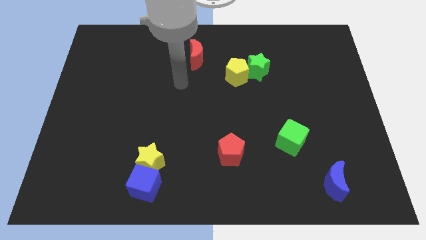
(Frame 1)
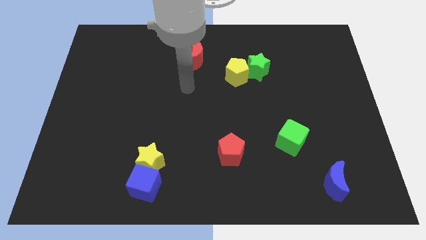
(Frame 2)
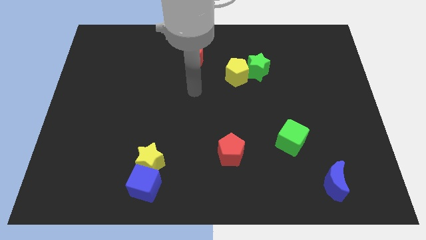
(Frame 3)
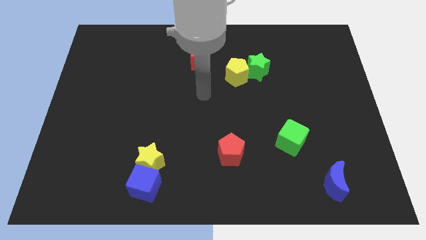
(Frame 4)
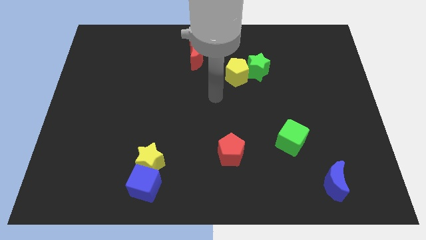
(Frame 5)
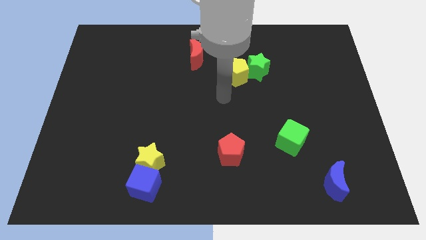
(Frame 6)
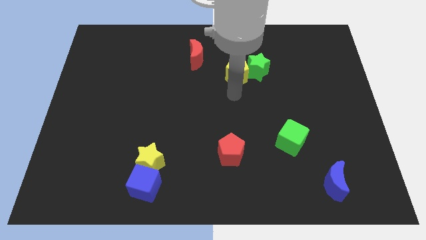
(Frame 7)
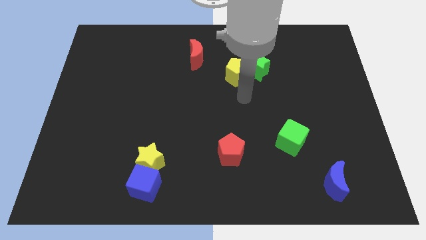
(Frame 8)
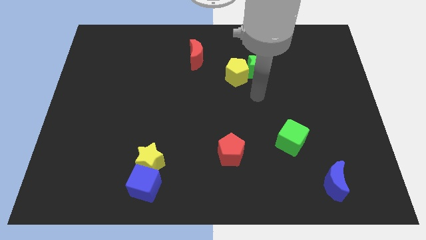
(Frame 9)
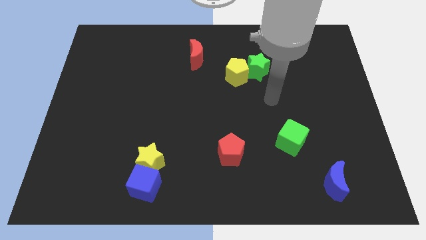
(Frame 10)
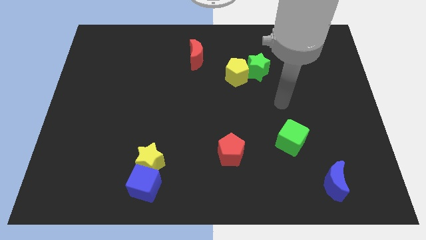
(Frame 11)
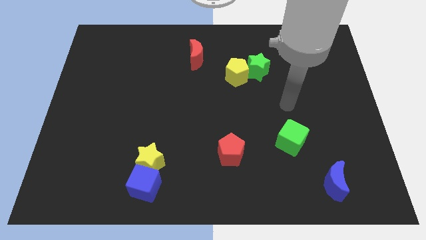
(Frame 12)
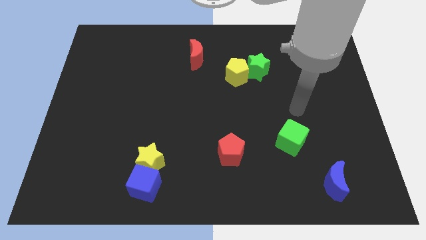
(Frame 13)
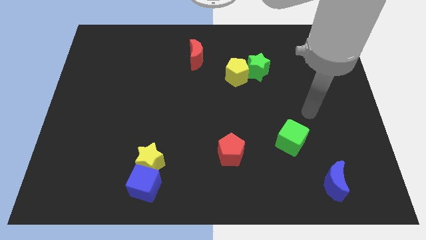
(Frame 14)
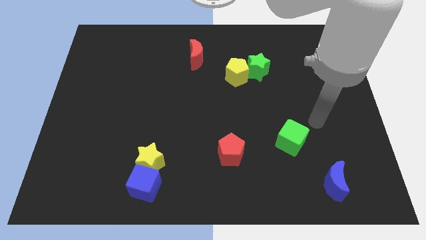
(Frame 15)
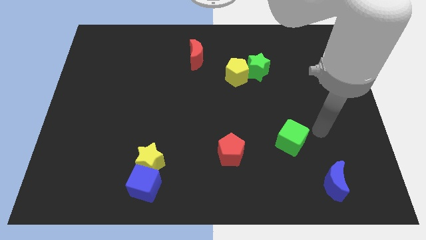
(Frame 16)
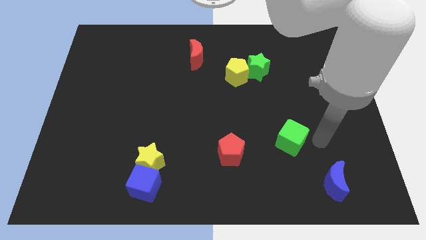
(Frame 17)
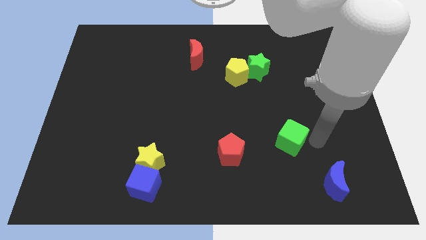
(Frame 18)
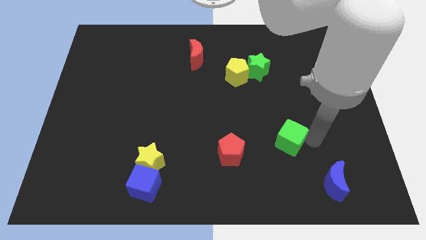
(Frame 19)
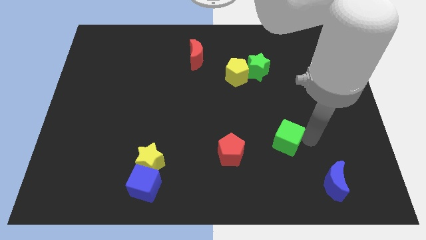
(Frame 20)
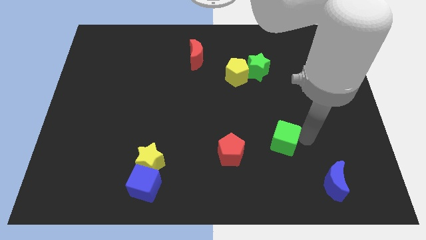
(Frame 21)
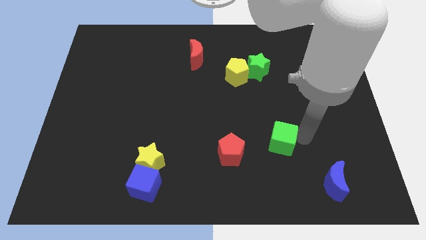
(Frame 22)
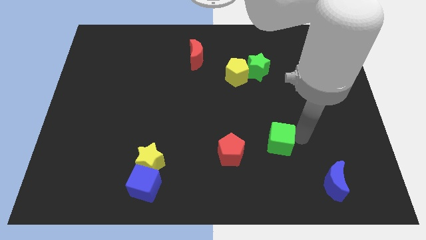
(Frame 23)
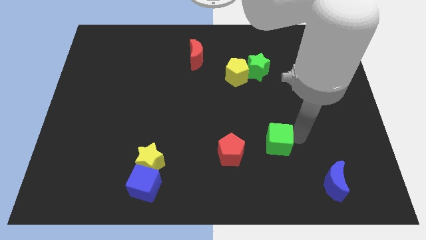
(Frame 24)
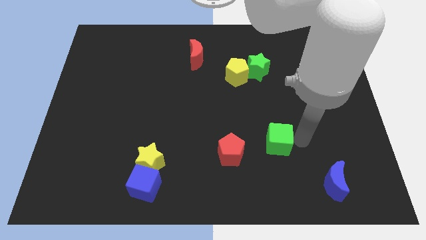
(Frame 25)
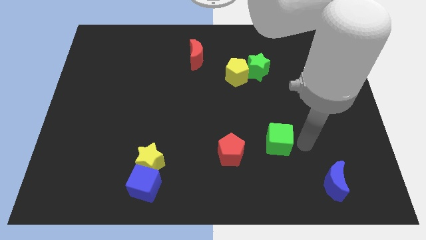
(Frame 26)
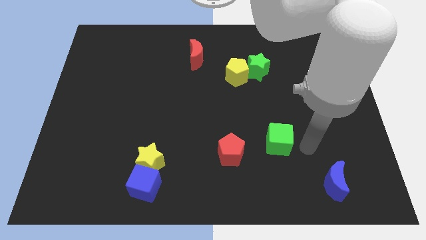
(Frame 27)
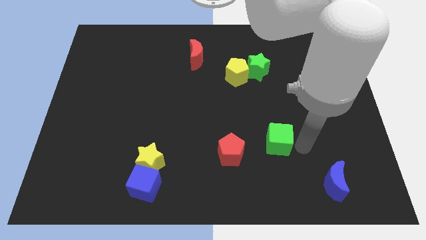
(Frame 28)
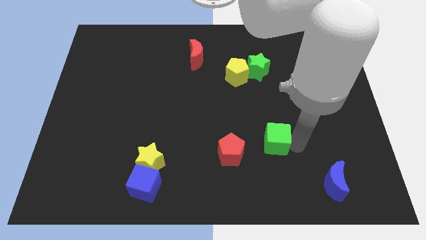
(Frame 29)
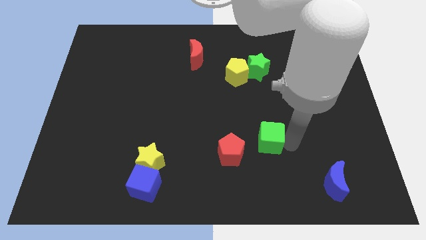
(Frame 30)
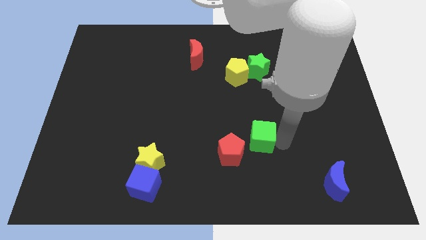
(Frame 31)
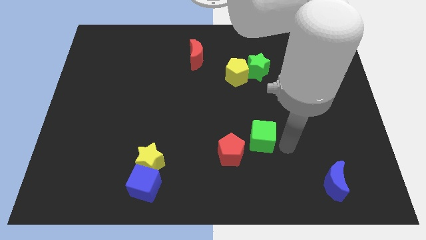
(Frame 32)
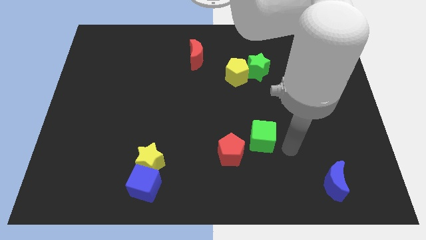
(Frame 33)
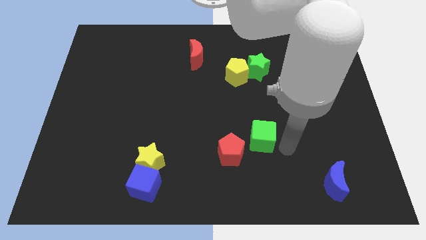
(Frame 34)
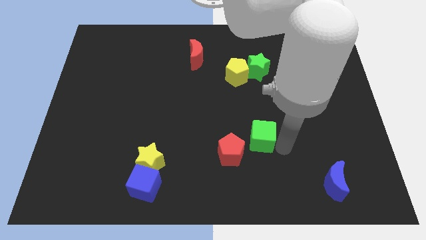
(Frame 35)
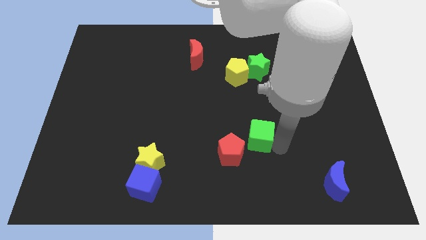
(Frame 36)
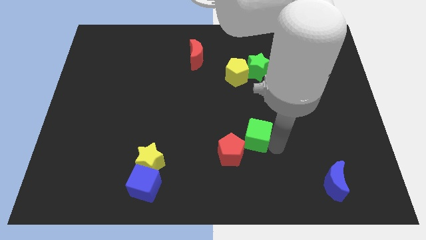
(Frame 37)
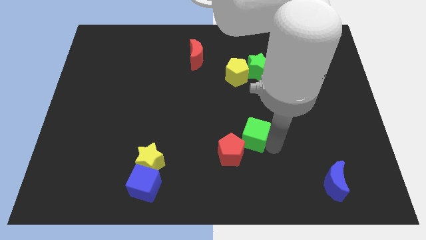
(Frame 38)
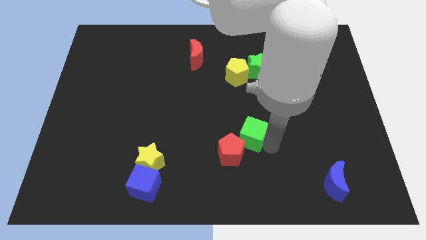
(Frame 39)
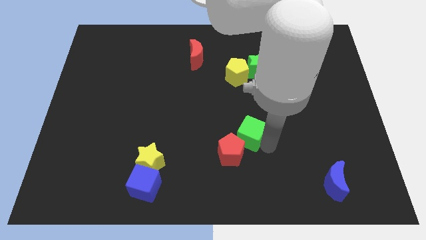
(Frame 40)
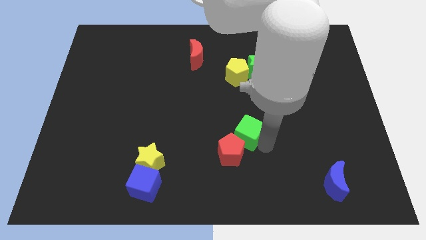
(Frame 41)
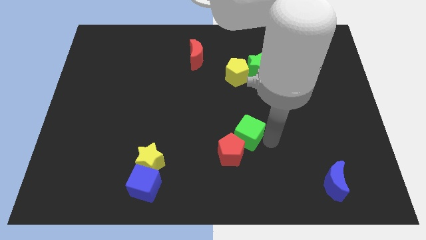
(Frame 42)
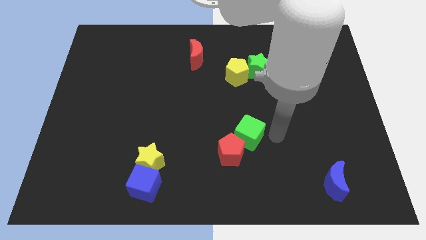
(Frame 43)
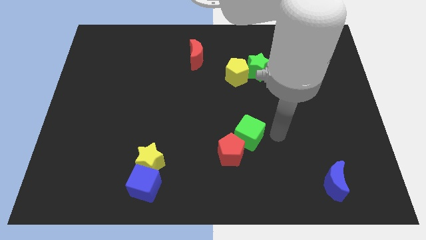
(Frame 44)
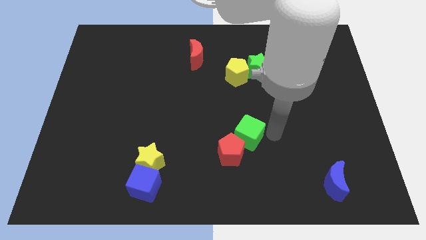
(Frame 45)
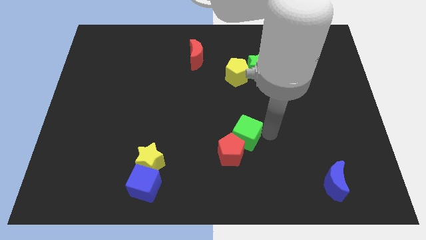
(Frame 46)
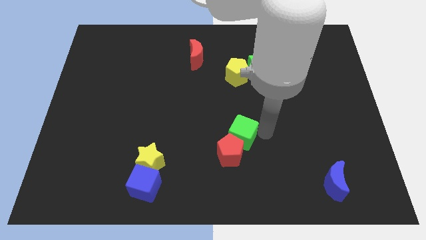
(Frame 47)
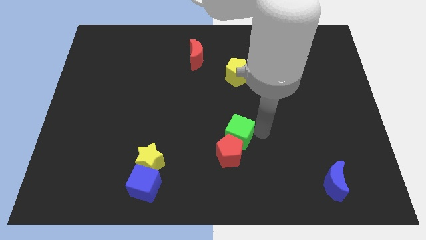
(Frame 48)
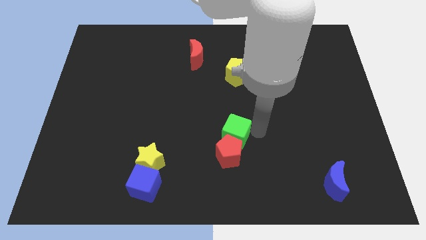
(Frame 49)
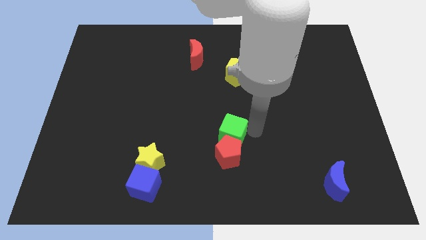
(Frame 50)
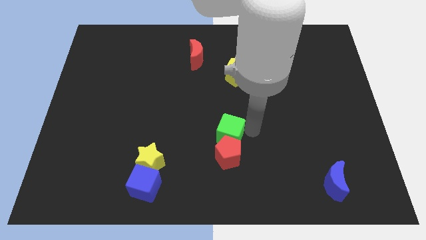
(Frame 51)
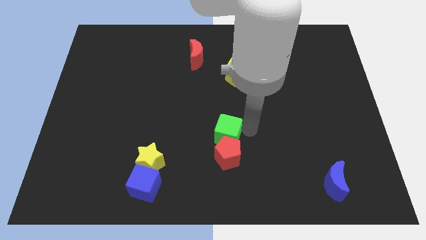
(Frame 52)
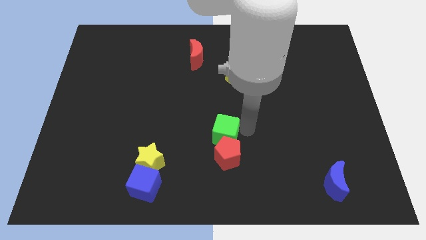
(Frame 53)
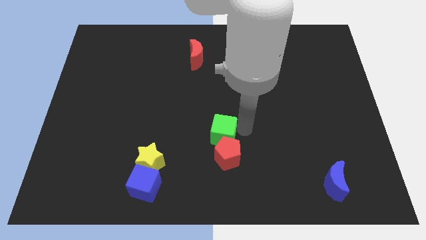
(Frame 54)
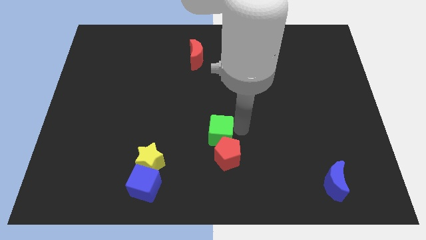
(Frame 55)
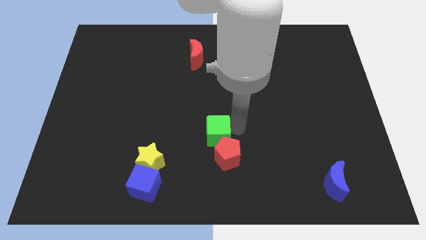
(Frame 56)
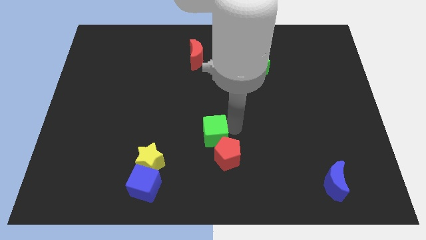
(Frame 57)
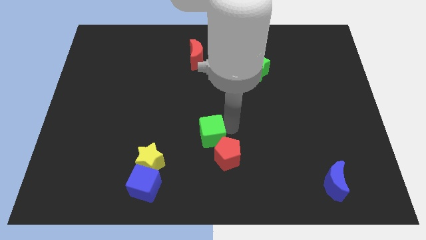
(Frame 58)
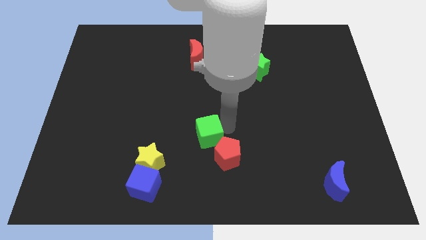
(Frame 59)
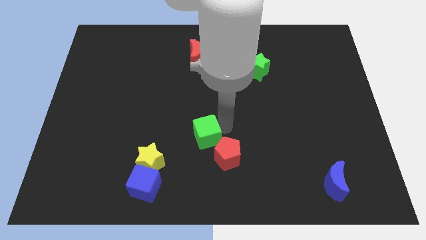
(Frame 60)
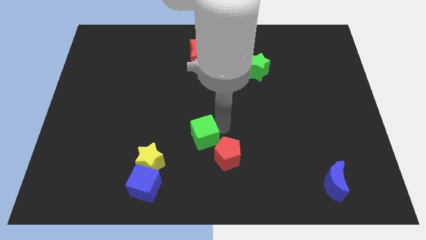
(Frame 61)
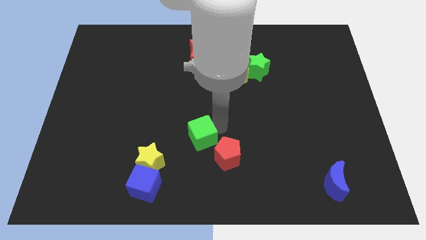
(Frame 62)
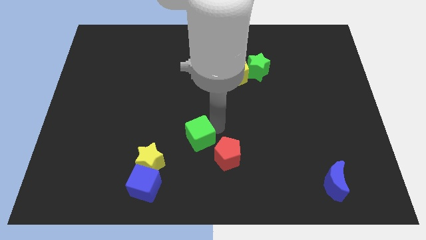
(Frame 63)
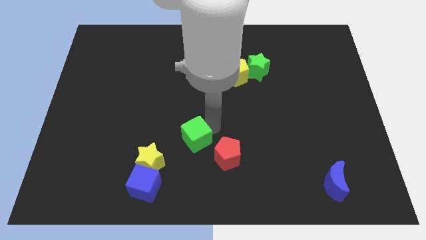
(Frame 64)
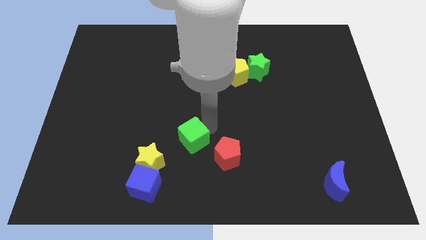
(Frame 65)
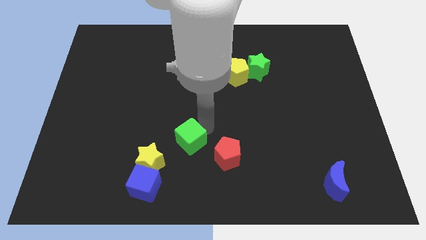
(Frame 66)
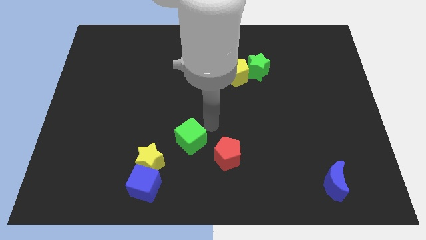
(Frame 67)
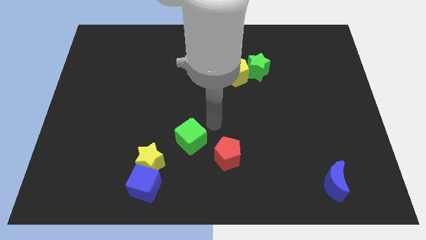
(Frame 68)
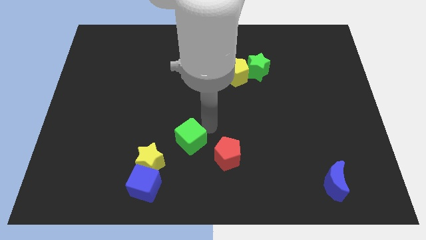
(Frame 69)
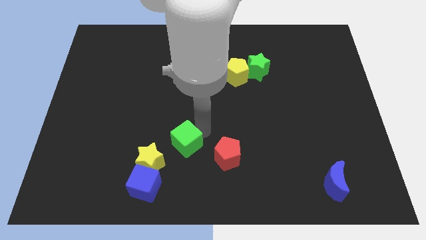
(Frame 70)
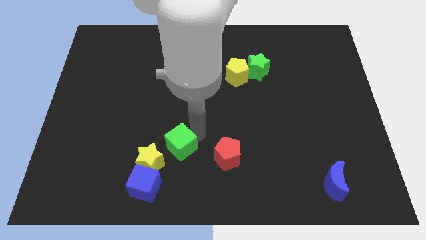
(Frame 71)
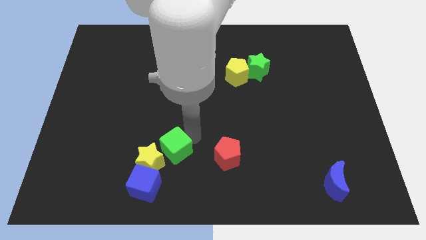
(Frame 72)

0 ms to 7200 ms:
push the green cube to the yellow star
